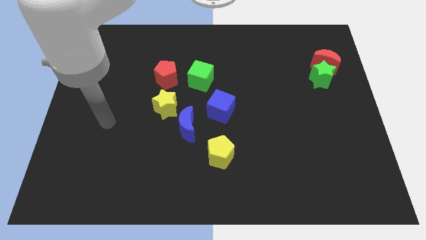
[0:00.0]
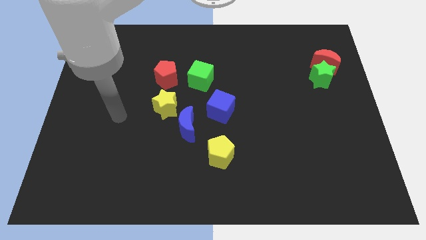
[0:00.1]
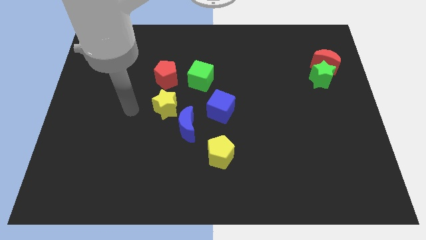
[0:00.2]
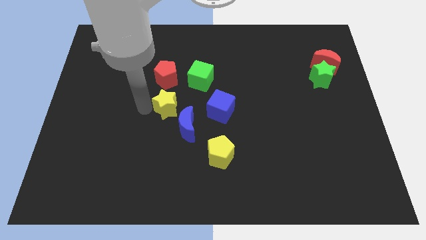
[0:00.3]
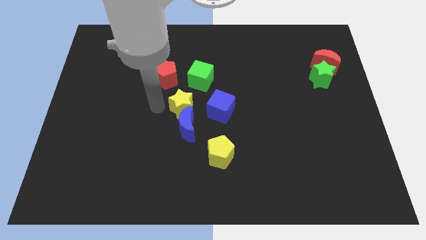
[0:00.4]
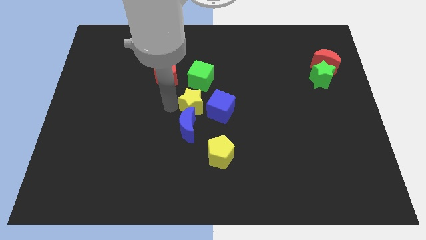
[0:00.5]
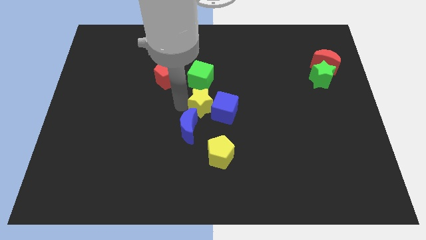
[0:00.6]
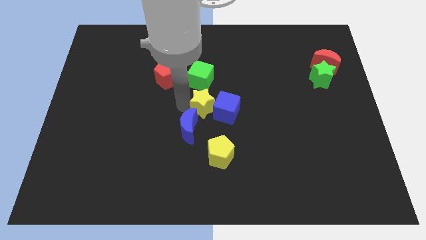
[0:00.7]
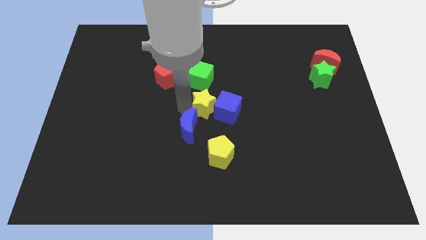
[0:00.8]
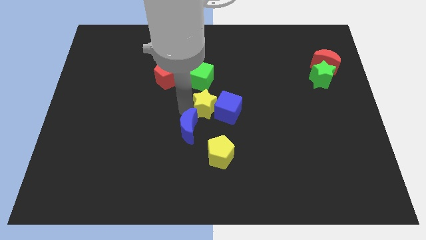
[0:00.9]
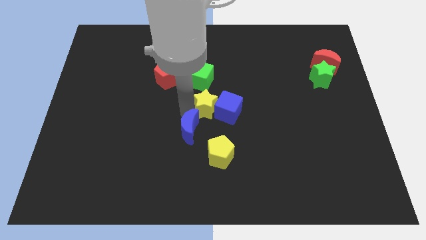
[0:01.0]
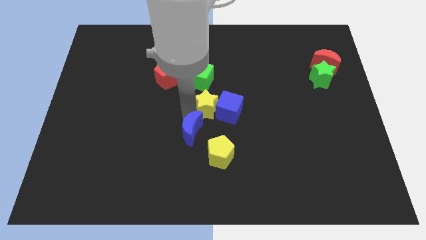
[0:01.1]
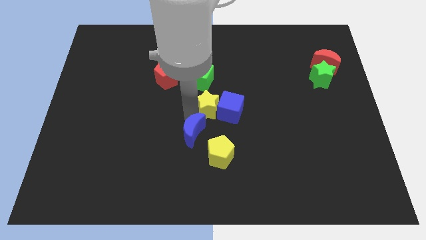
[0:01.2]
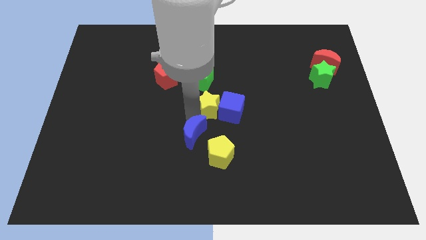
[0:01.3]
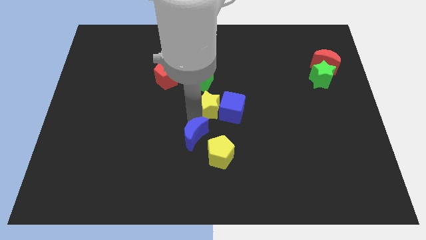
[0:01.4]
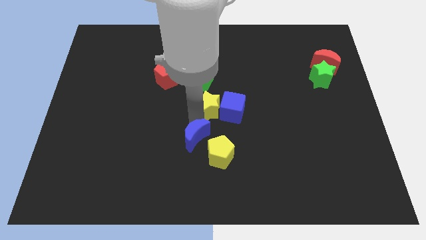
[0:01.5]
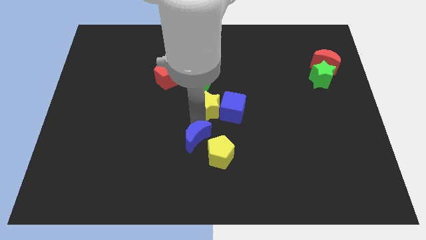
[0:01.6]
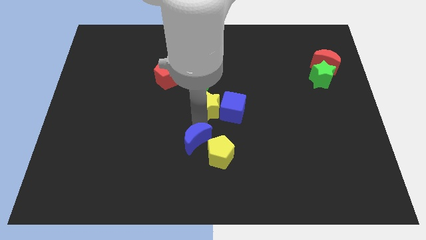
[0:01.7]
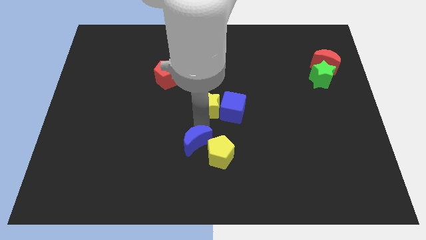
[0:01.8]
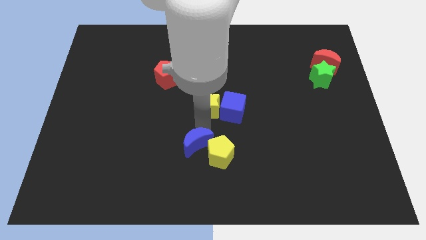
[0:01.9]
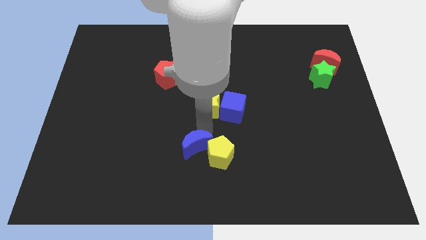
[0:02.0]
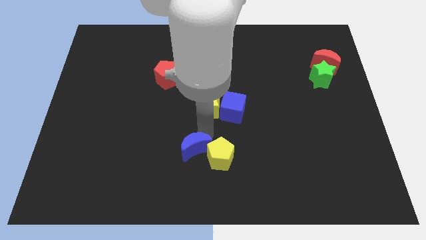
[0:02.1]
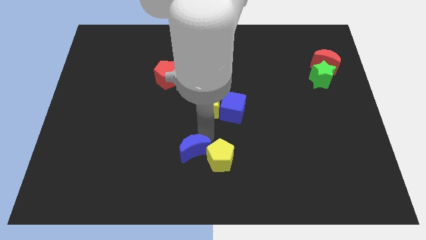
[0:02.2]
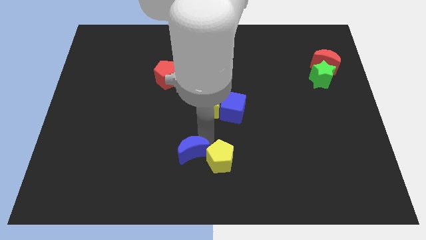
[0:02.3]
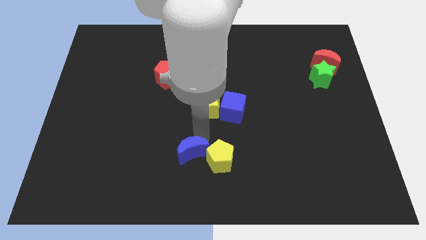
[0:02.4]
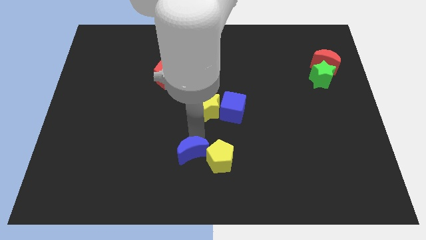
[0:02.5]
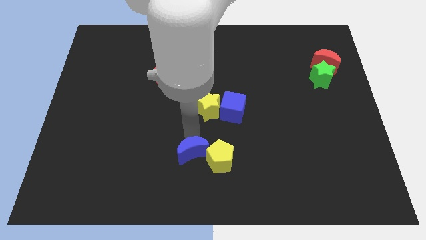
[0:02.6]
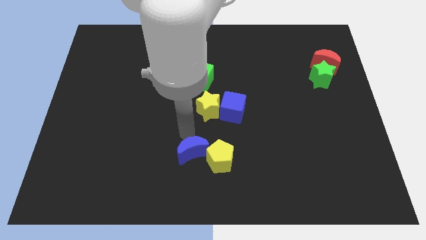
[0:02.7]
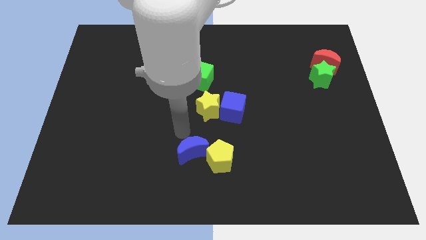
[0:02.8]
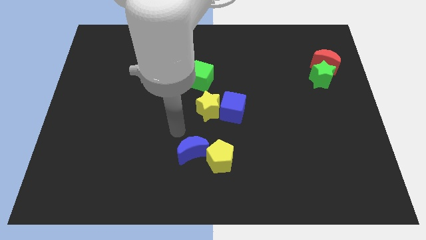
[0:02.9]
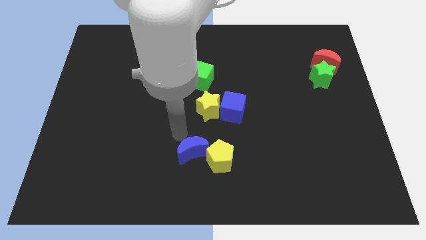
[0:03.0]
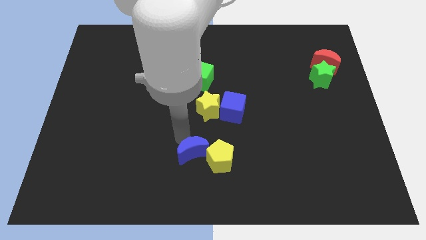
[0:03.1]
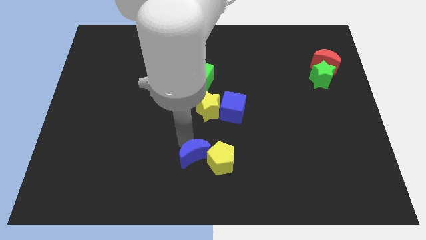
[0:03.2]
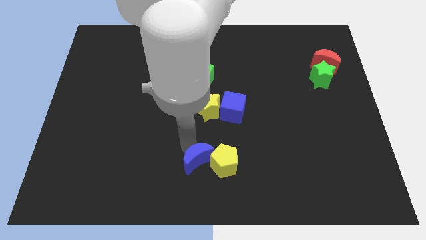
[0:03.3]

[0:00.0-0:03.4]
slightly slide the blue moon diagonally down and right

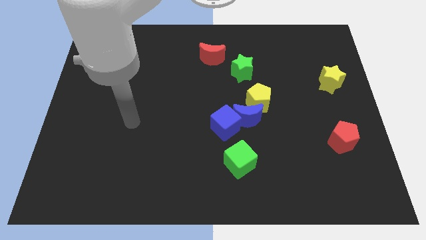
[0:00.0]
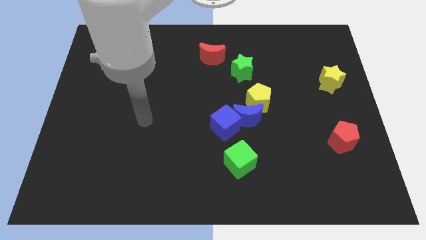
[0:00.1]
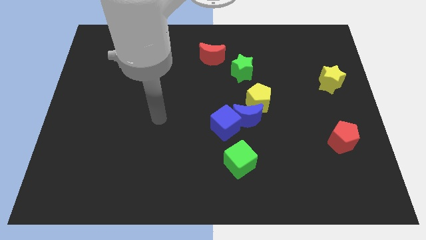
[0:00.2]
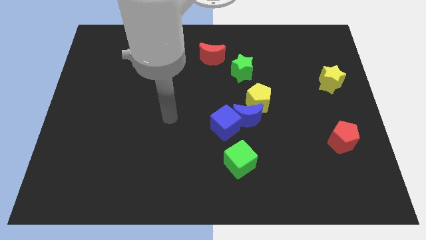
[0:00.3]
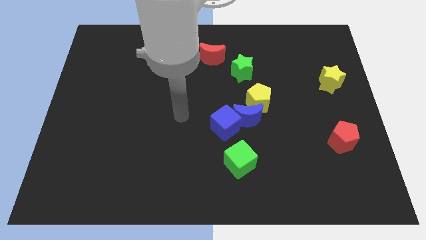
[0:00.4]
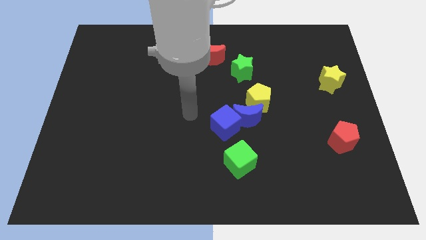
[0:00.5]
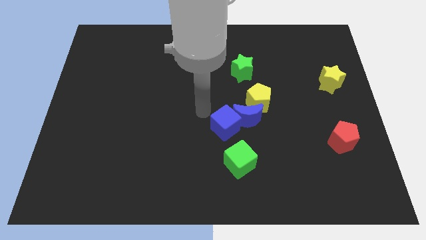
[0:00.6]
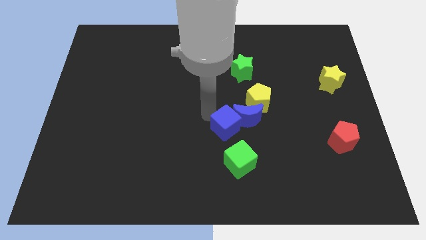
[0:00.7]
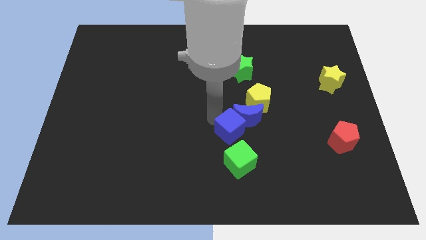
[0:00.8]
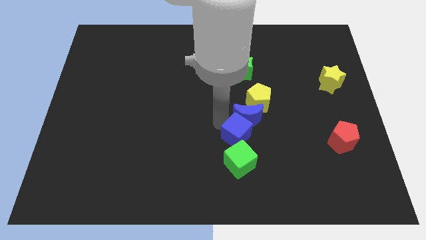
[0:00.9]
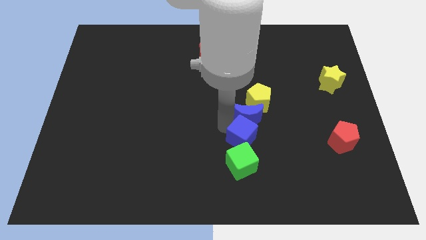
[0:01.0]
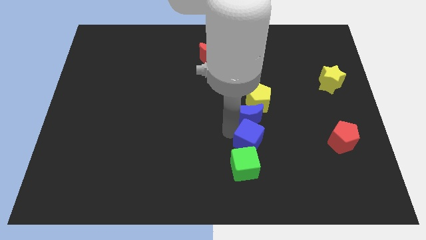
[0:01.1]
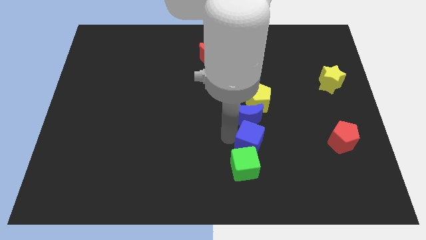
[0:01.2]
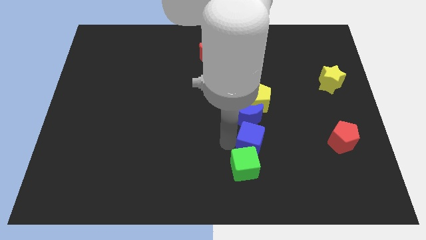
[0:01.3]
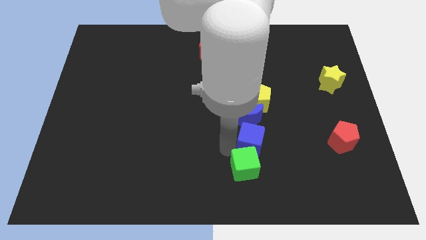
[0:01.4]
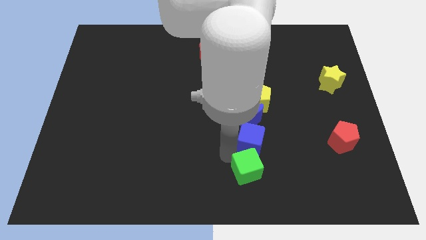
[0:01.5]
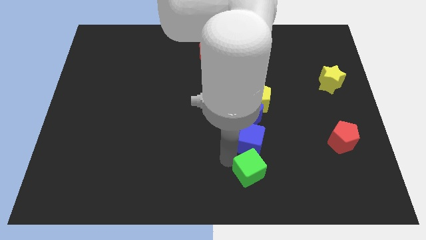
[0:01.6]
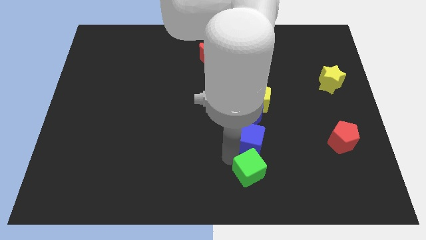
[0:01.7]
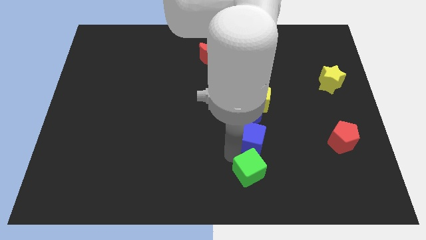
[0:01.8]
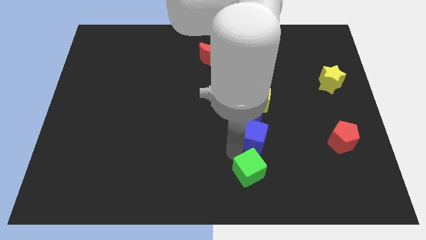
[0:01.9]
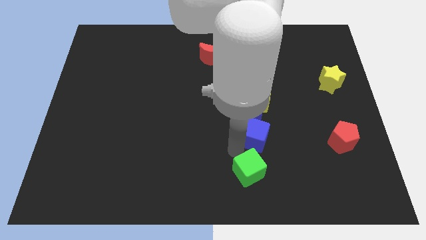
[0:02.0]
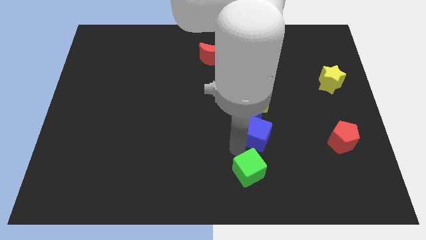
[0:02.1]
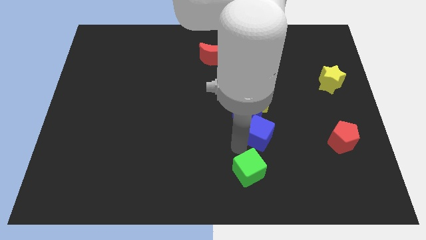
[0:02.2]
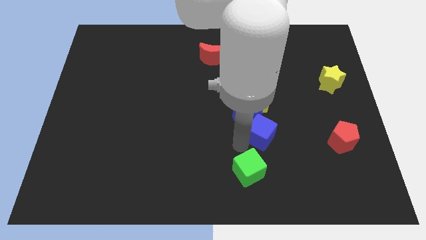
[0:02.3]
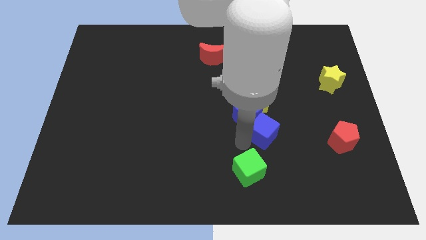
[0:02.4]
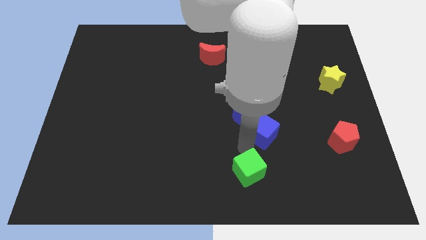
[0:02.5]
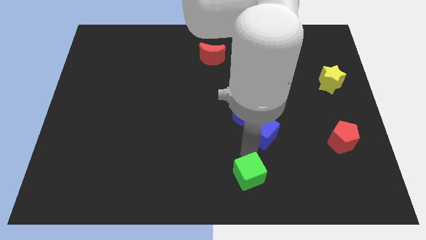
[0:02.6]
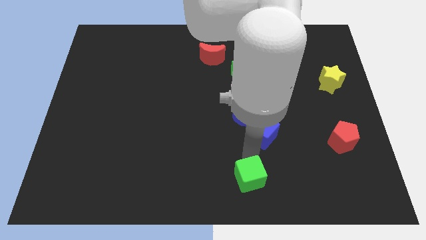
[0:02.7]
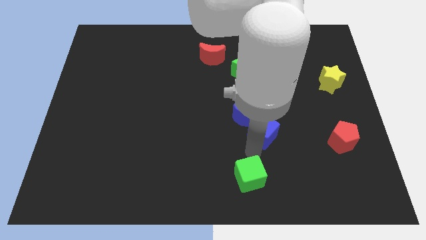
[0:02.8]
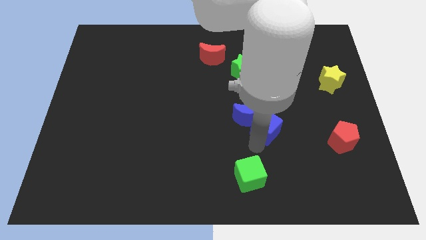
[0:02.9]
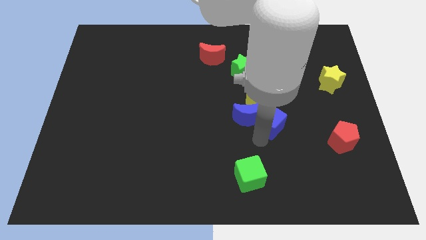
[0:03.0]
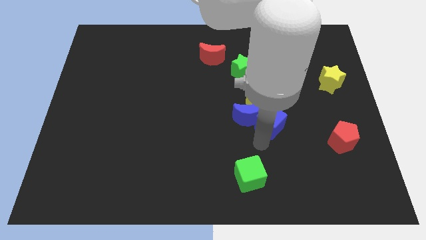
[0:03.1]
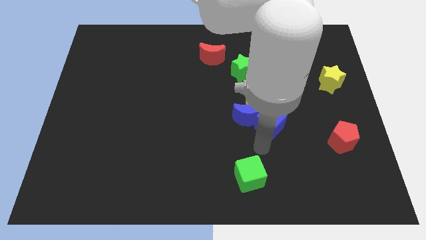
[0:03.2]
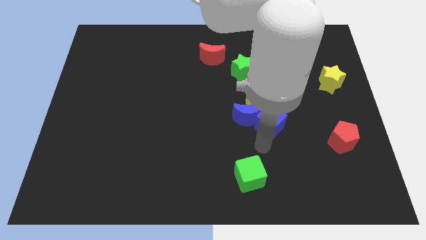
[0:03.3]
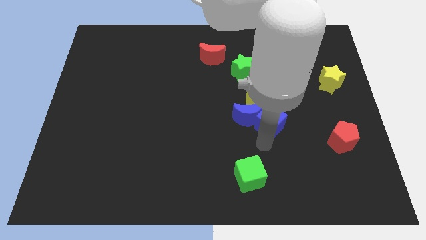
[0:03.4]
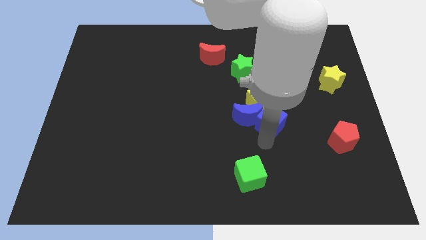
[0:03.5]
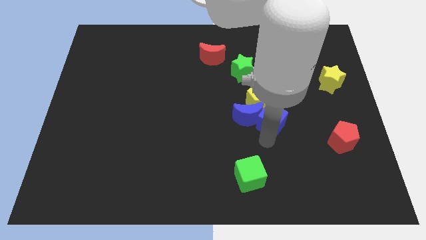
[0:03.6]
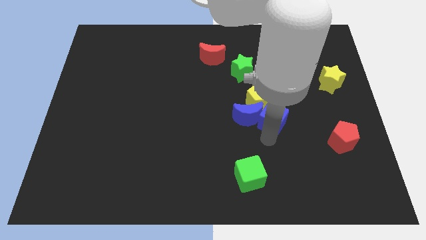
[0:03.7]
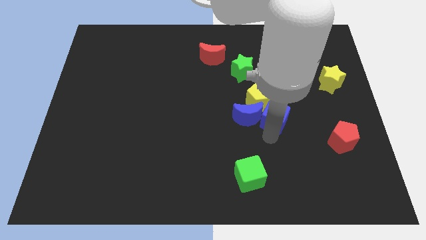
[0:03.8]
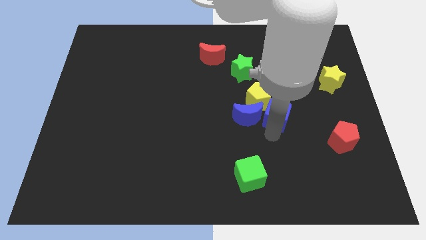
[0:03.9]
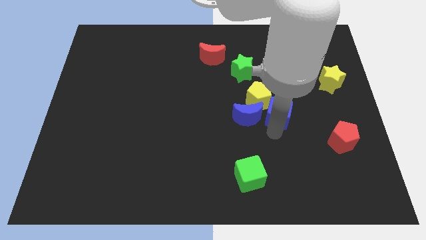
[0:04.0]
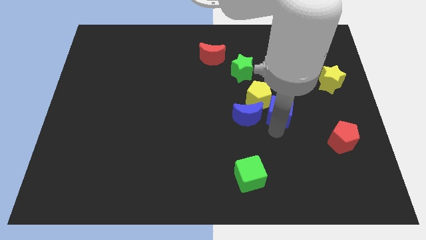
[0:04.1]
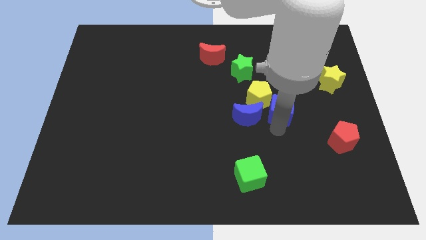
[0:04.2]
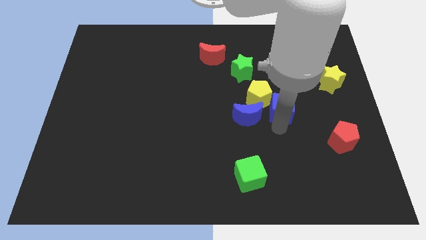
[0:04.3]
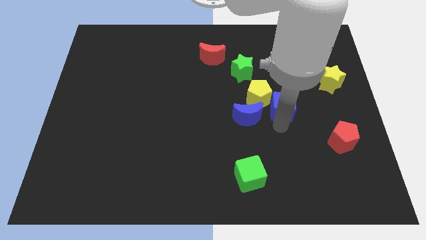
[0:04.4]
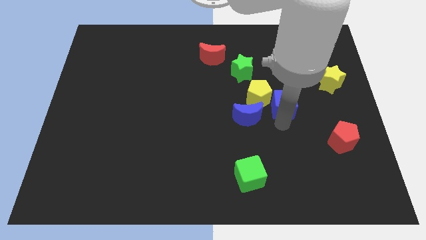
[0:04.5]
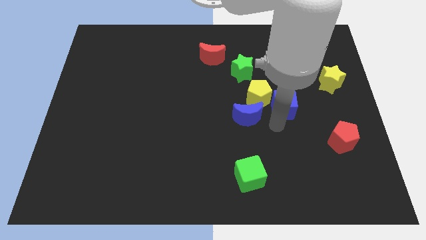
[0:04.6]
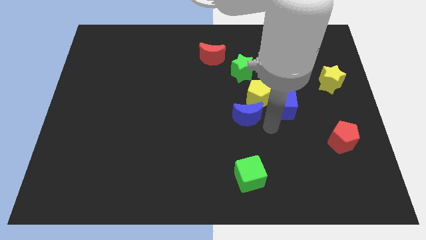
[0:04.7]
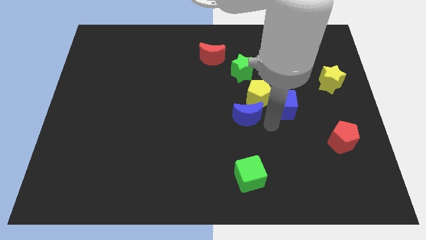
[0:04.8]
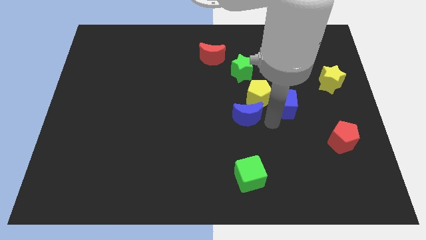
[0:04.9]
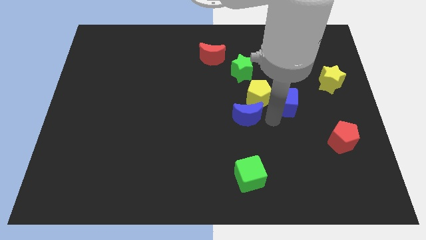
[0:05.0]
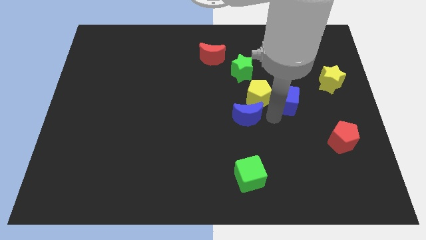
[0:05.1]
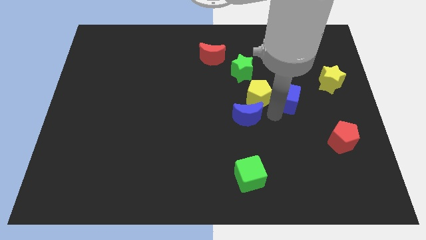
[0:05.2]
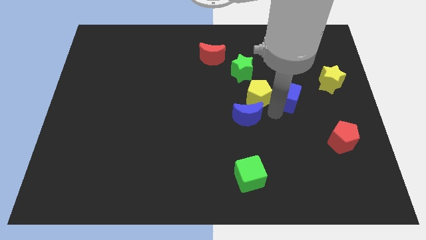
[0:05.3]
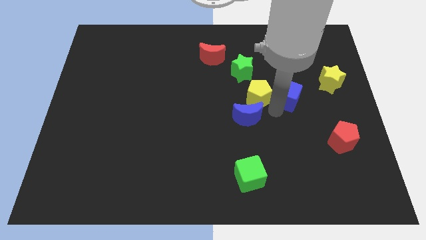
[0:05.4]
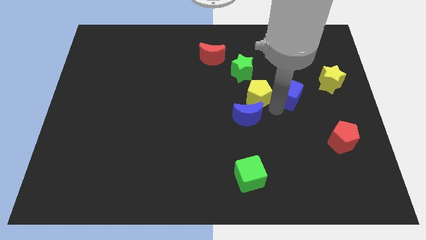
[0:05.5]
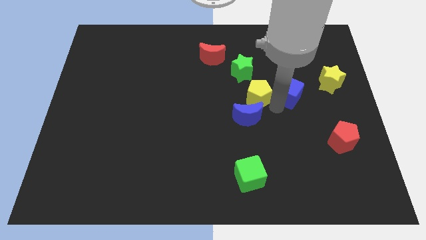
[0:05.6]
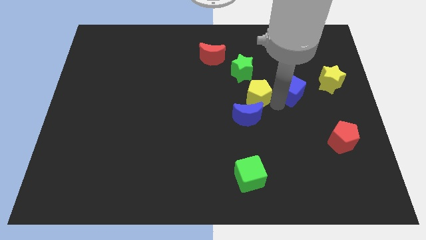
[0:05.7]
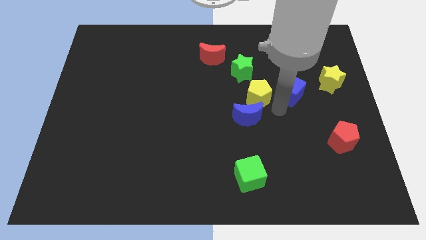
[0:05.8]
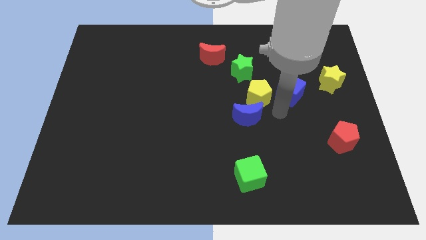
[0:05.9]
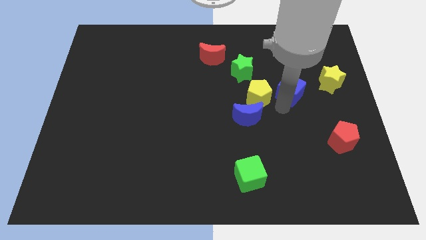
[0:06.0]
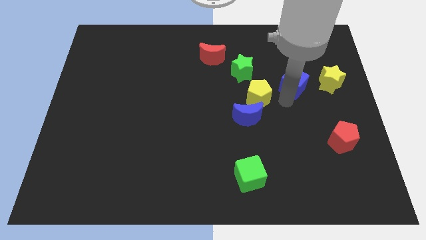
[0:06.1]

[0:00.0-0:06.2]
slide the blue cube up and to the right diagonally
